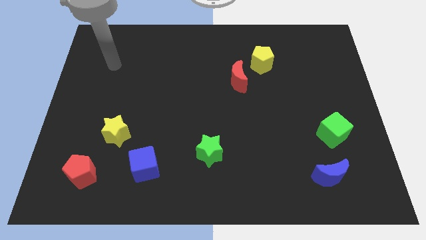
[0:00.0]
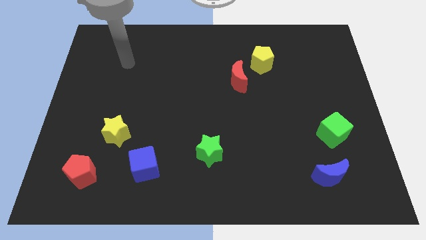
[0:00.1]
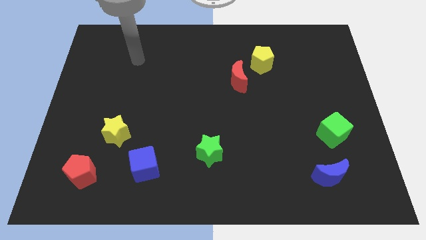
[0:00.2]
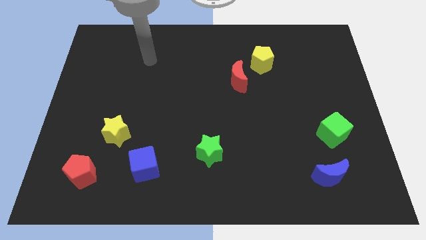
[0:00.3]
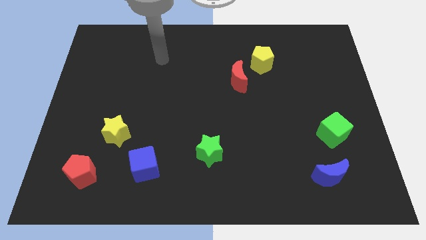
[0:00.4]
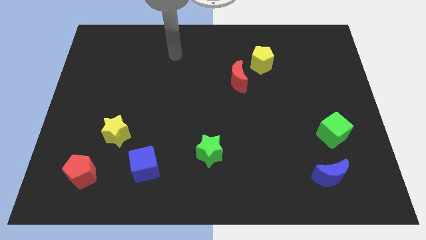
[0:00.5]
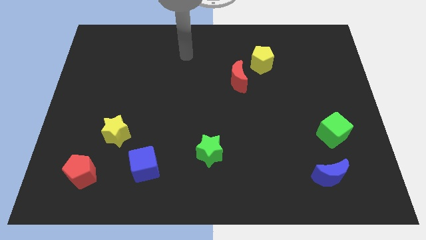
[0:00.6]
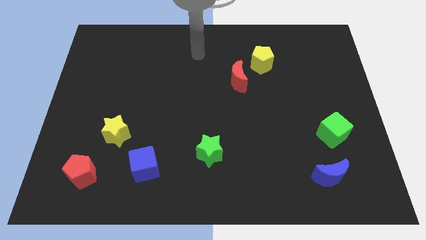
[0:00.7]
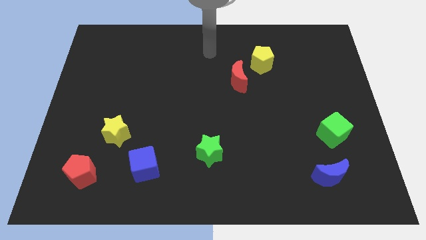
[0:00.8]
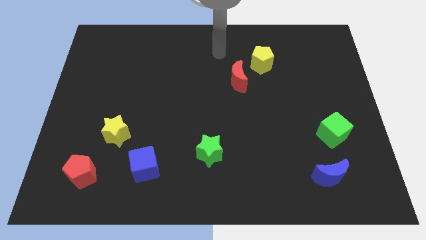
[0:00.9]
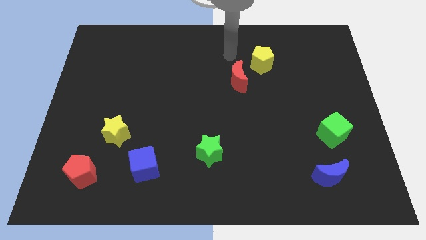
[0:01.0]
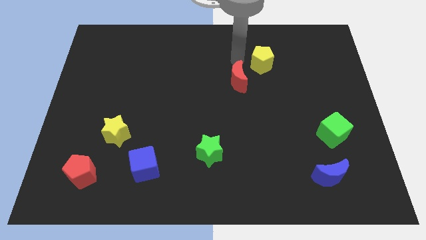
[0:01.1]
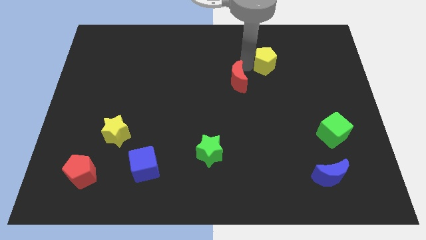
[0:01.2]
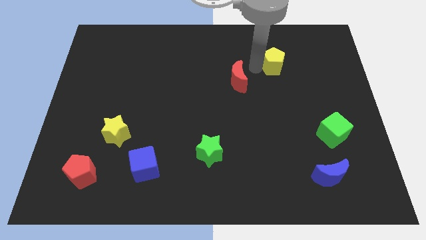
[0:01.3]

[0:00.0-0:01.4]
pull the red moon apart from the yellow pentagon

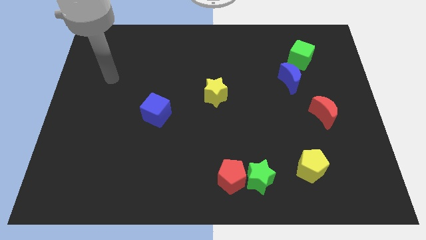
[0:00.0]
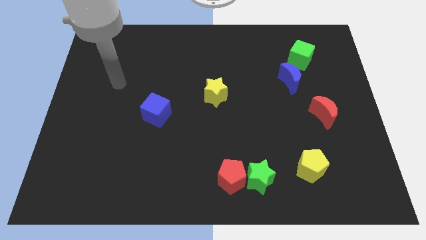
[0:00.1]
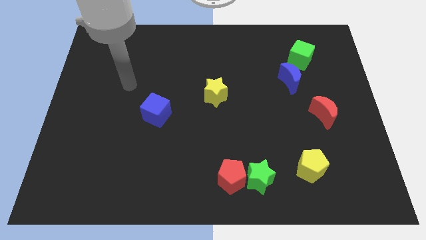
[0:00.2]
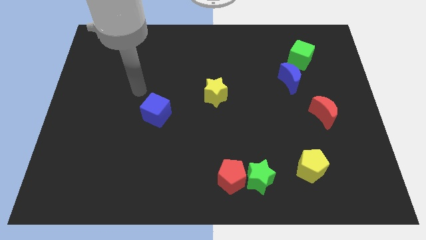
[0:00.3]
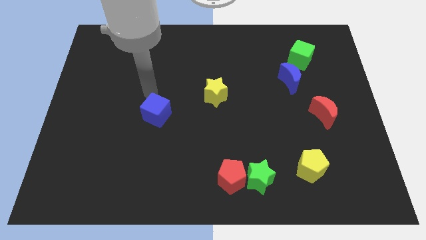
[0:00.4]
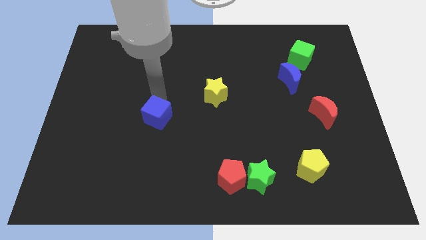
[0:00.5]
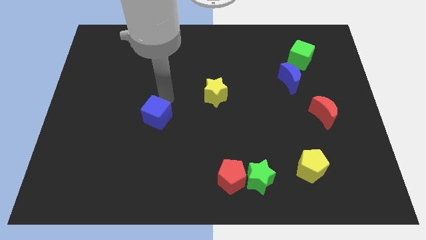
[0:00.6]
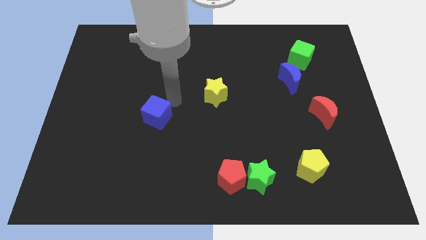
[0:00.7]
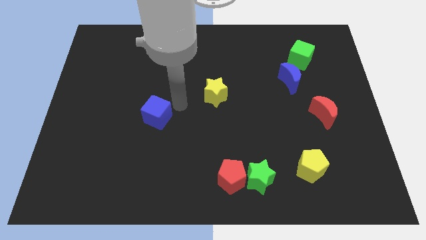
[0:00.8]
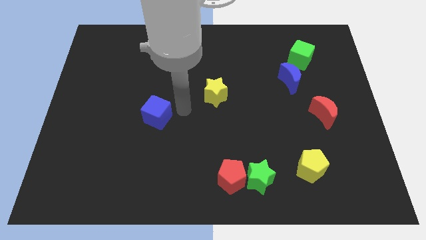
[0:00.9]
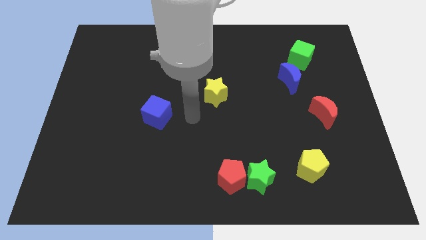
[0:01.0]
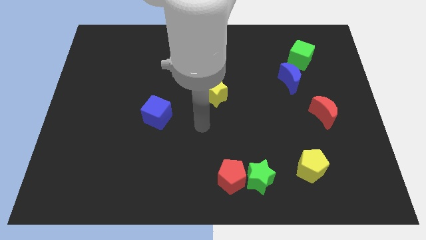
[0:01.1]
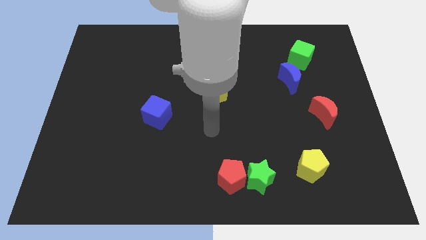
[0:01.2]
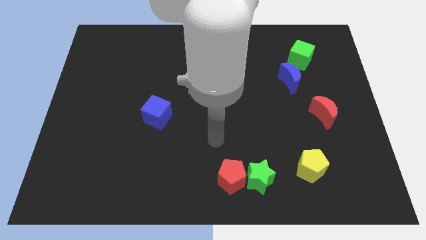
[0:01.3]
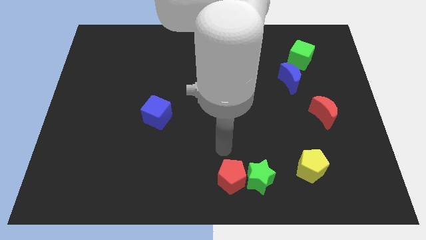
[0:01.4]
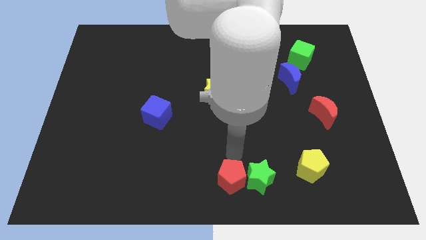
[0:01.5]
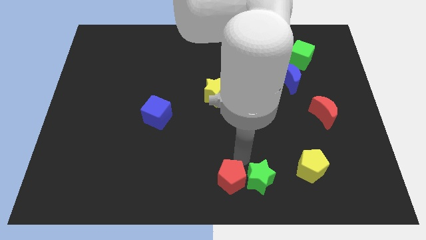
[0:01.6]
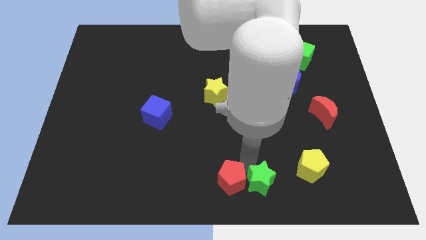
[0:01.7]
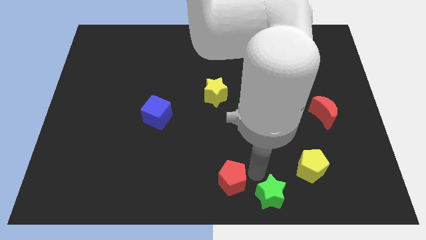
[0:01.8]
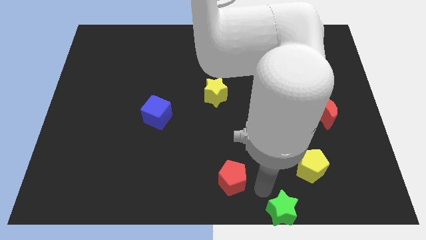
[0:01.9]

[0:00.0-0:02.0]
pull the red pentagon apart from the green star

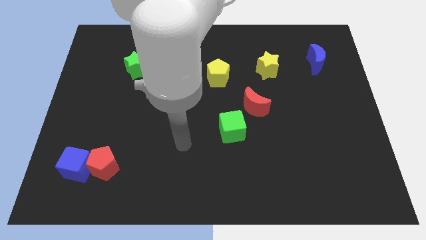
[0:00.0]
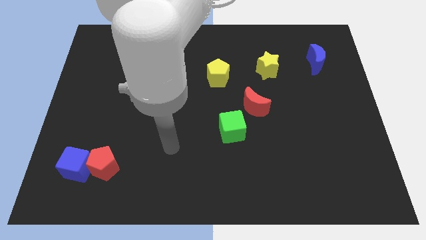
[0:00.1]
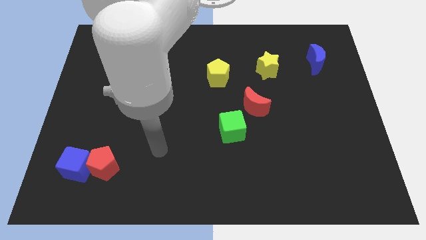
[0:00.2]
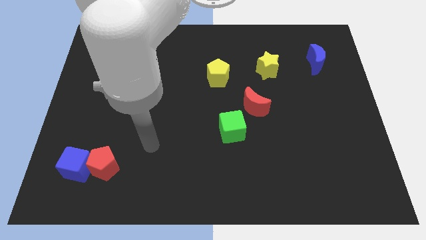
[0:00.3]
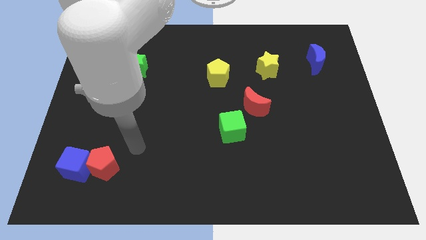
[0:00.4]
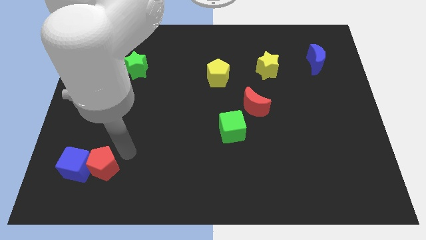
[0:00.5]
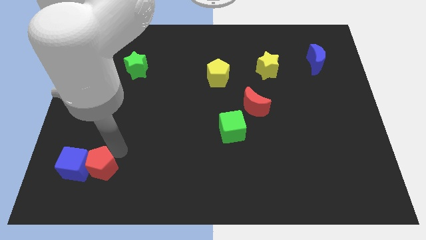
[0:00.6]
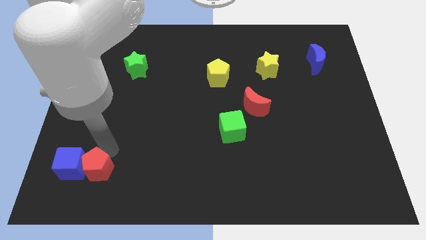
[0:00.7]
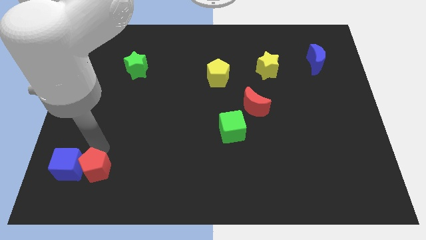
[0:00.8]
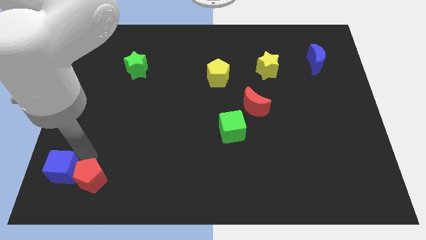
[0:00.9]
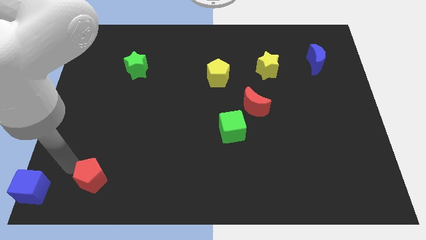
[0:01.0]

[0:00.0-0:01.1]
separate the red pentagon from the blue cube

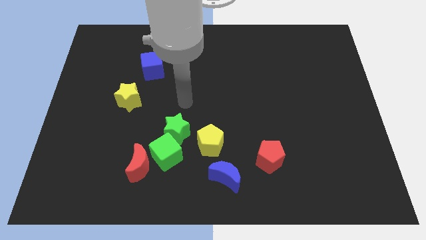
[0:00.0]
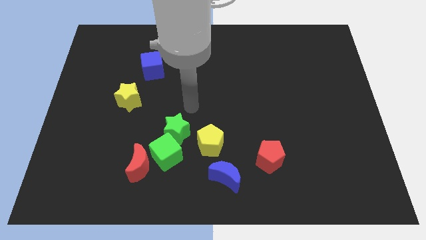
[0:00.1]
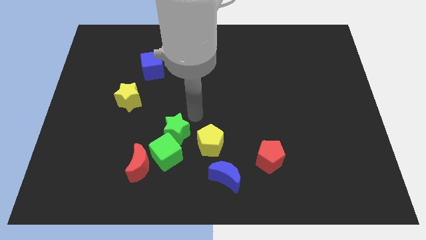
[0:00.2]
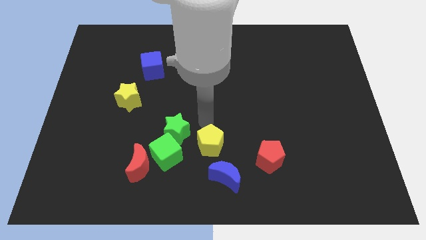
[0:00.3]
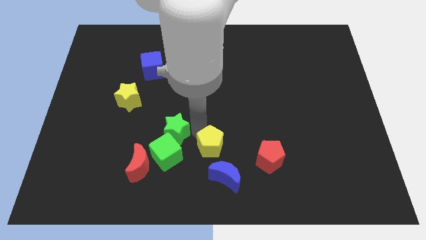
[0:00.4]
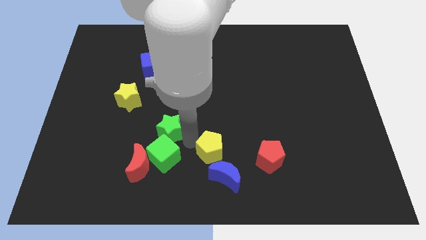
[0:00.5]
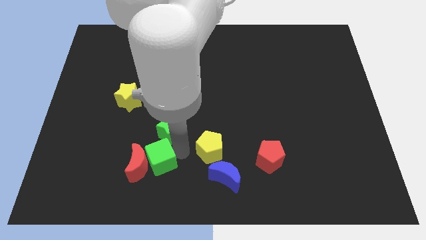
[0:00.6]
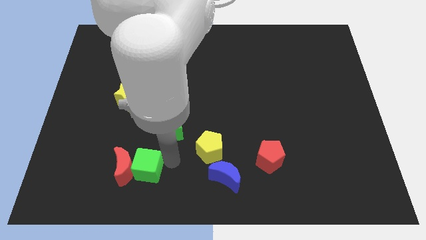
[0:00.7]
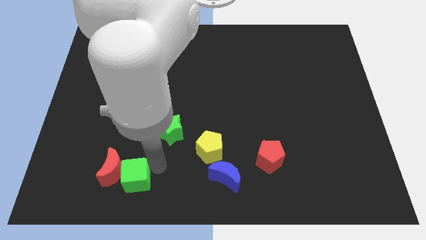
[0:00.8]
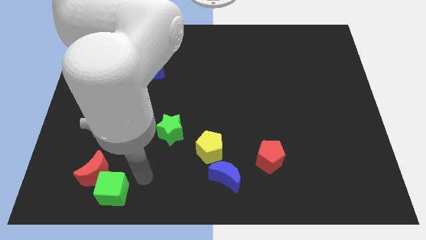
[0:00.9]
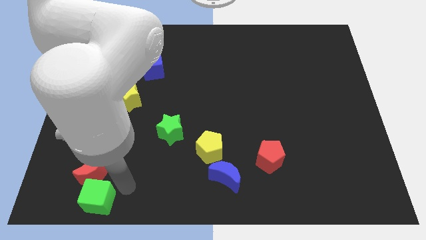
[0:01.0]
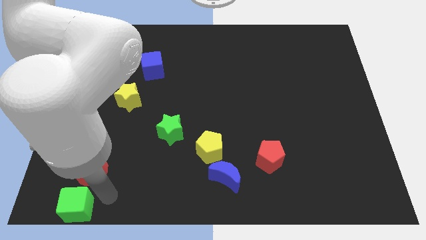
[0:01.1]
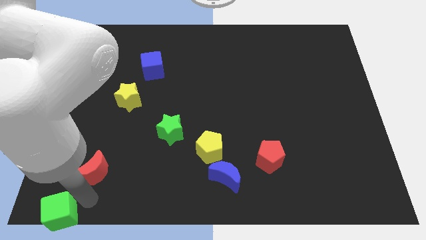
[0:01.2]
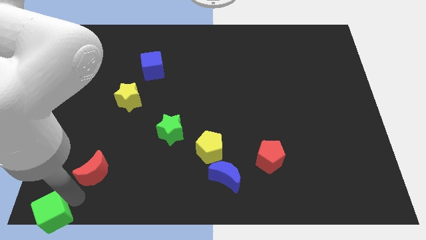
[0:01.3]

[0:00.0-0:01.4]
separate the red moon from the green cube

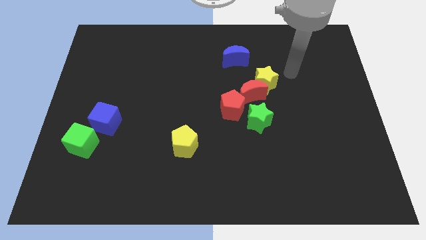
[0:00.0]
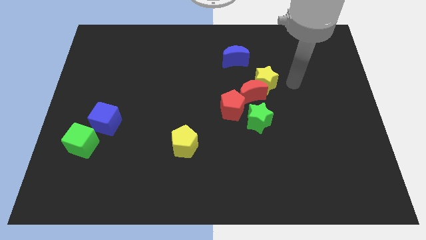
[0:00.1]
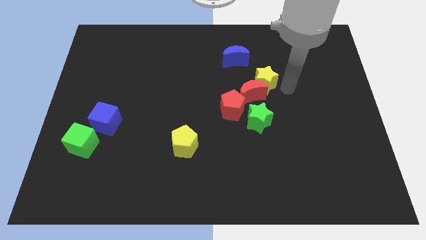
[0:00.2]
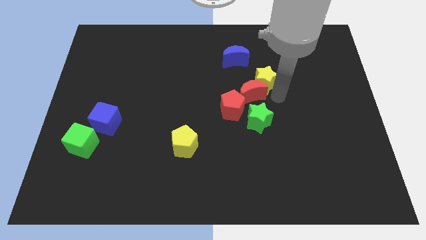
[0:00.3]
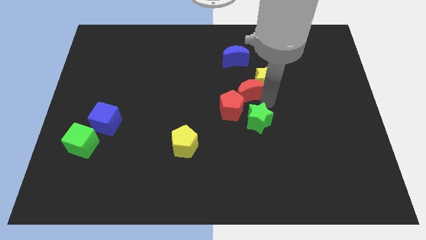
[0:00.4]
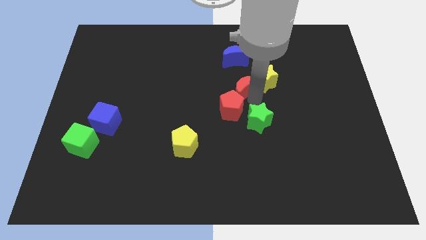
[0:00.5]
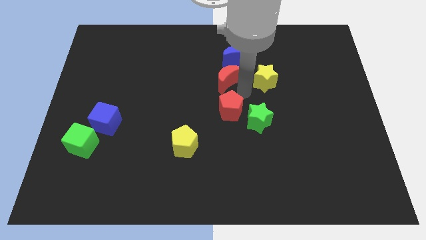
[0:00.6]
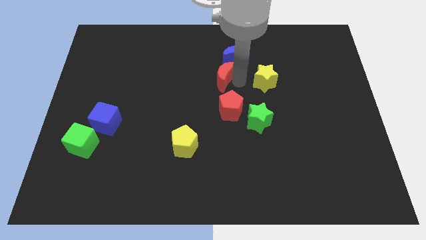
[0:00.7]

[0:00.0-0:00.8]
move the yellow star away from the red moon

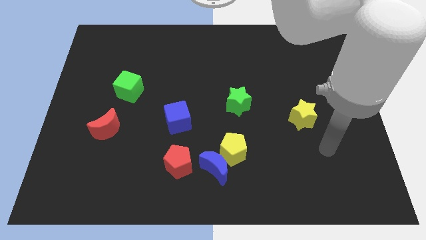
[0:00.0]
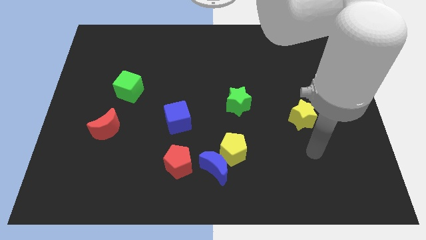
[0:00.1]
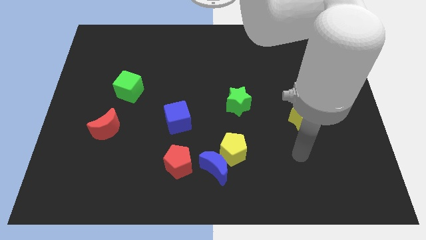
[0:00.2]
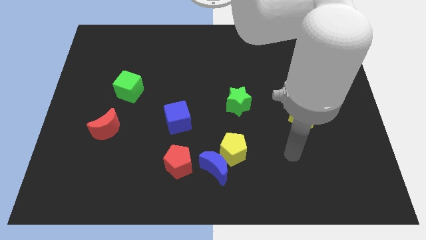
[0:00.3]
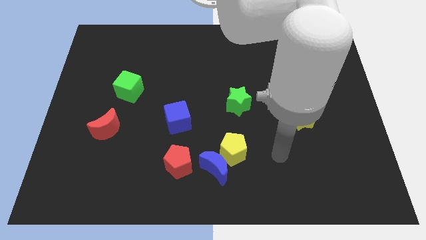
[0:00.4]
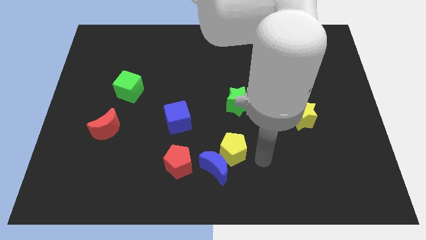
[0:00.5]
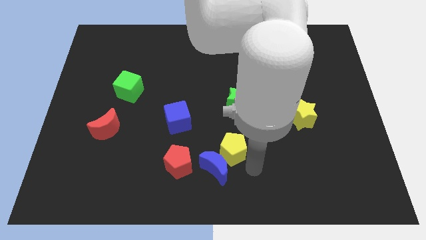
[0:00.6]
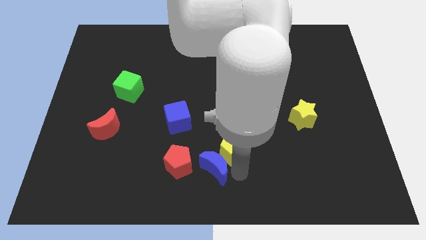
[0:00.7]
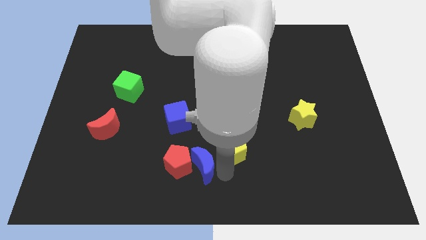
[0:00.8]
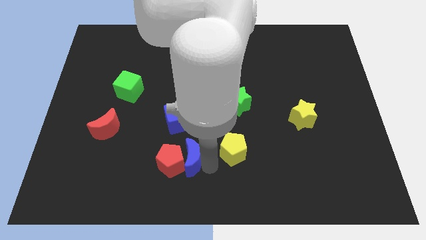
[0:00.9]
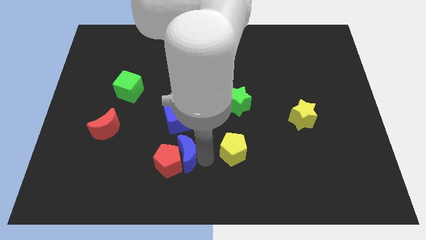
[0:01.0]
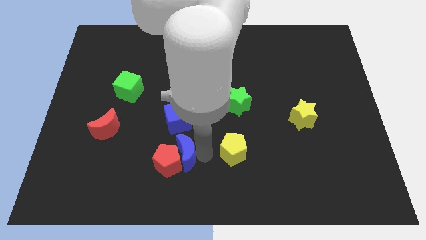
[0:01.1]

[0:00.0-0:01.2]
move the yellow pentagon away from the blue moon

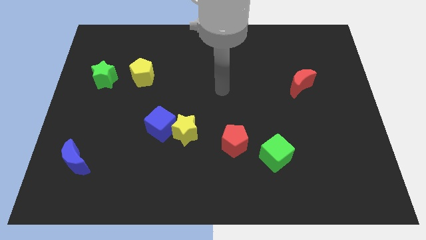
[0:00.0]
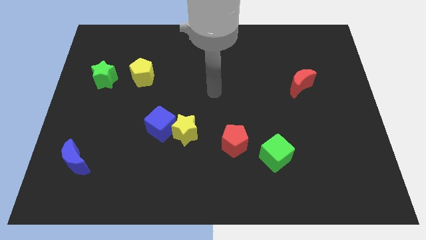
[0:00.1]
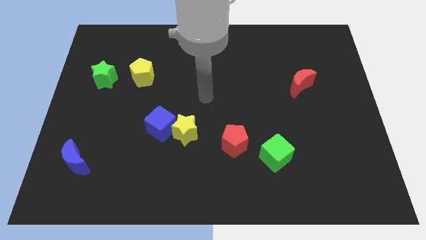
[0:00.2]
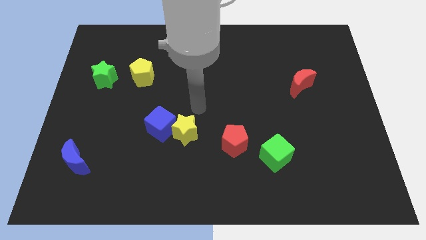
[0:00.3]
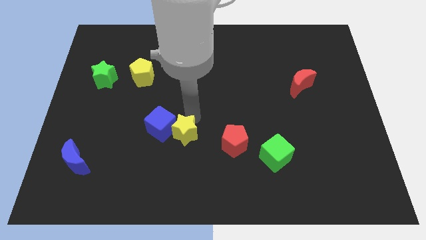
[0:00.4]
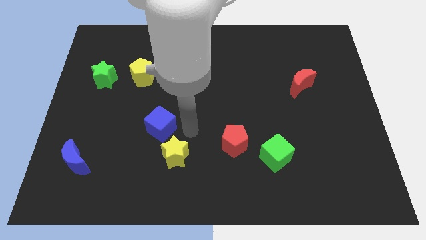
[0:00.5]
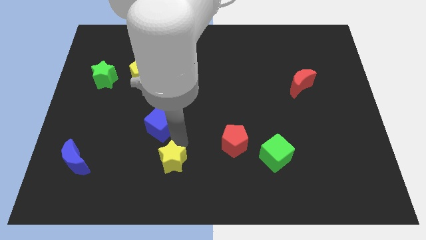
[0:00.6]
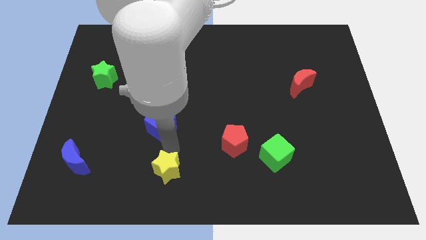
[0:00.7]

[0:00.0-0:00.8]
pull the blue cube apart from the yellow star

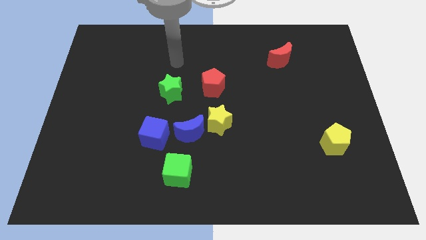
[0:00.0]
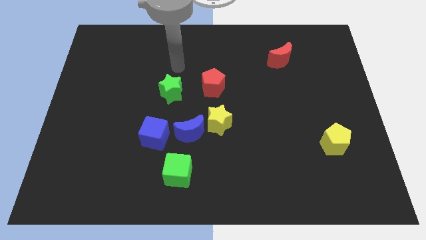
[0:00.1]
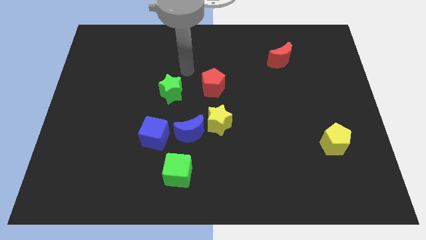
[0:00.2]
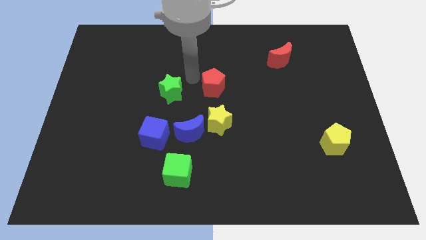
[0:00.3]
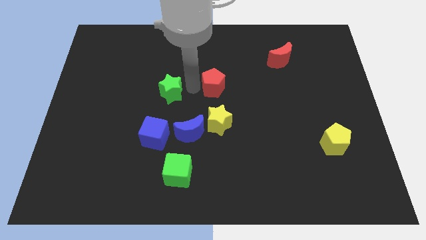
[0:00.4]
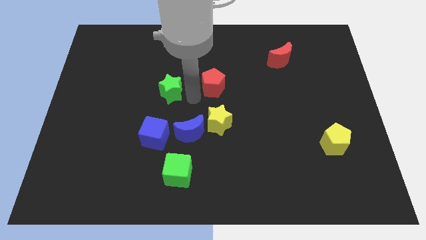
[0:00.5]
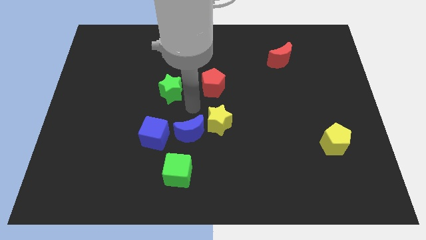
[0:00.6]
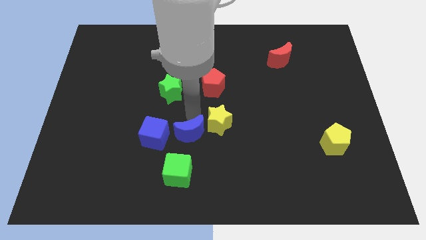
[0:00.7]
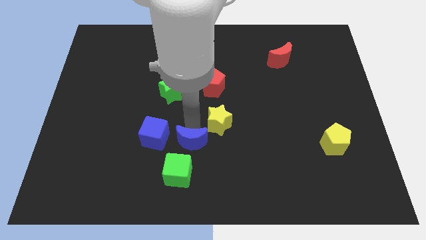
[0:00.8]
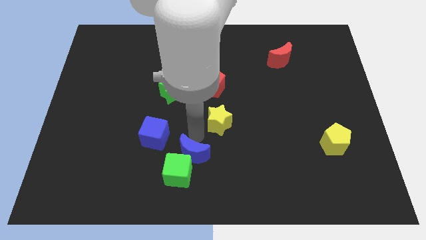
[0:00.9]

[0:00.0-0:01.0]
pull the yellow star apart from the blue moon
